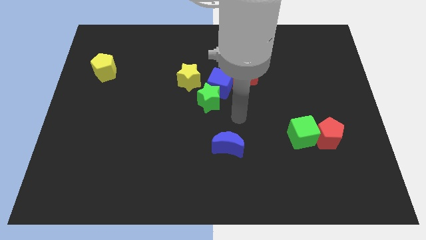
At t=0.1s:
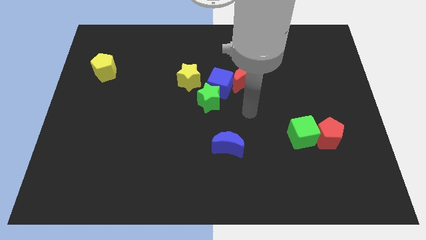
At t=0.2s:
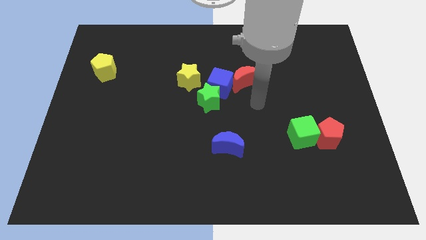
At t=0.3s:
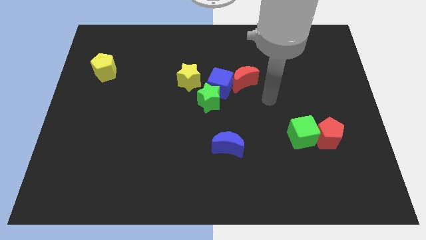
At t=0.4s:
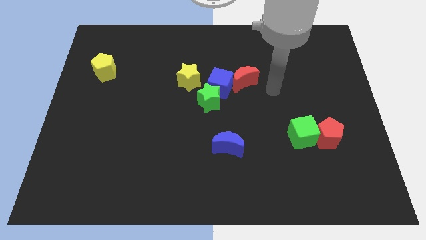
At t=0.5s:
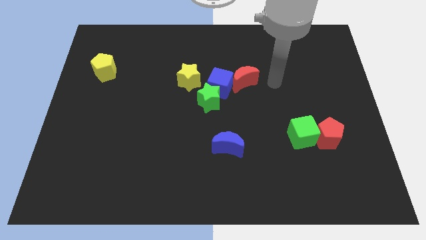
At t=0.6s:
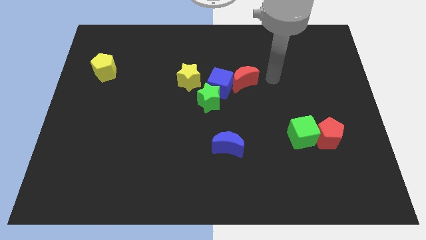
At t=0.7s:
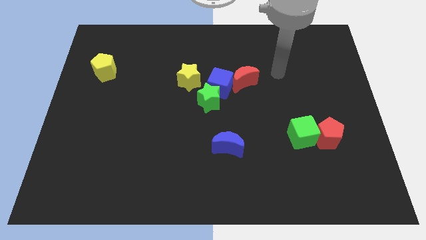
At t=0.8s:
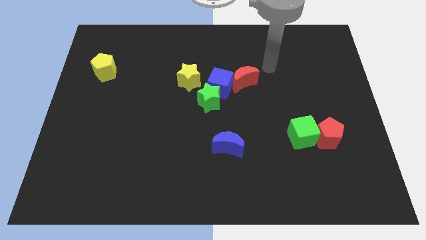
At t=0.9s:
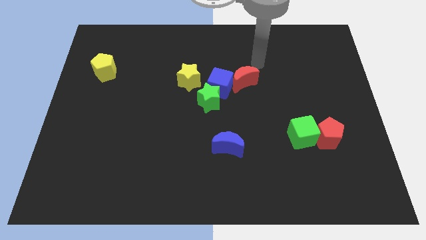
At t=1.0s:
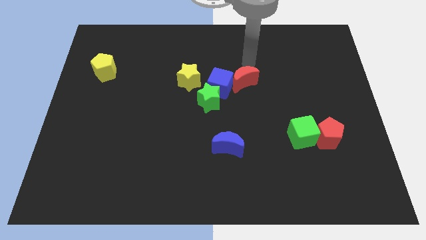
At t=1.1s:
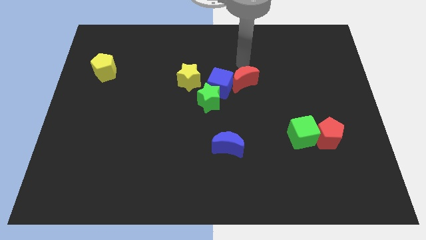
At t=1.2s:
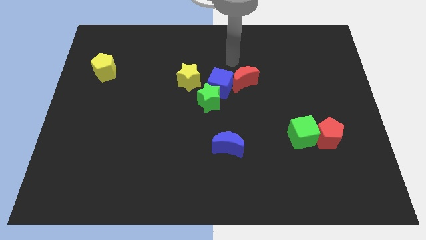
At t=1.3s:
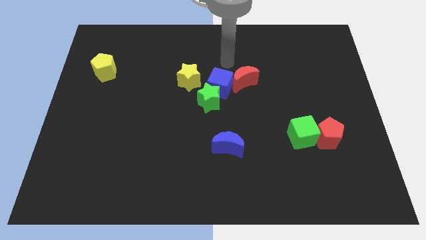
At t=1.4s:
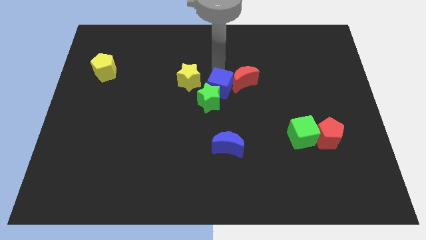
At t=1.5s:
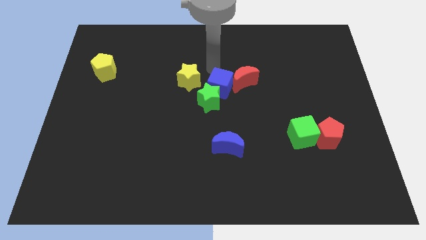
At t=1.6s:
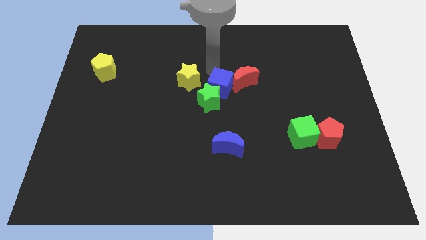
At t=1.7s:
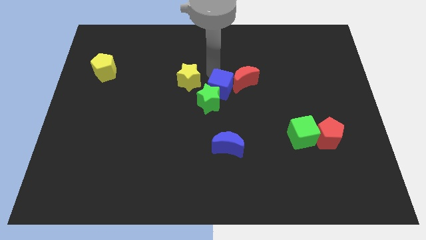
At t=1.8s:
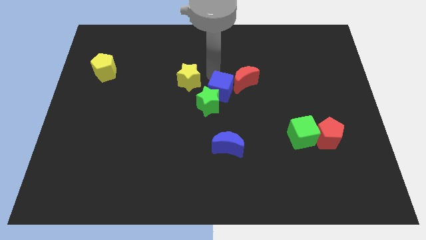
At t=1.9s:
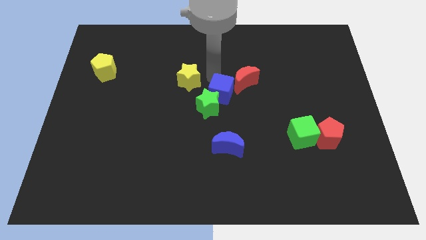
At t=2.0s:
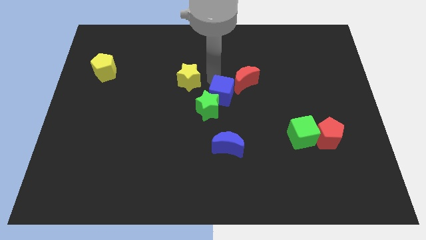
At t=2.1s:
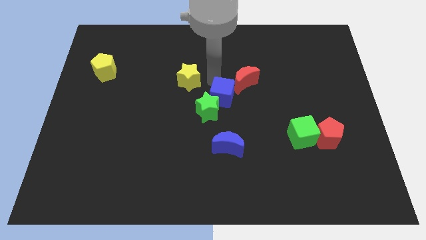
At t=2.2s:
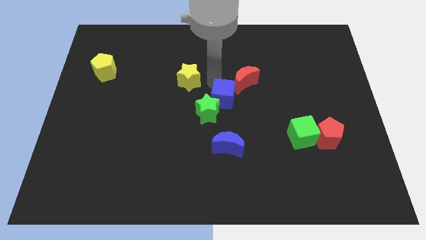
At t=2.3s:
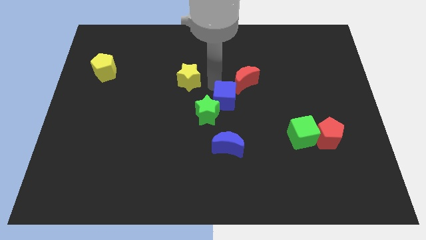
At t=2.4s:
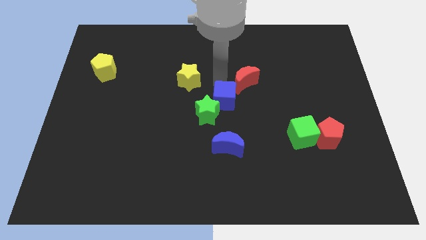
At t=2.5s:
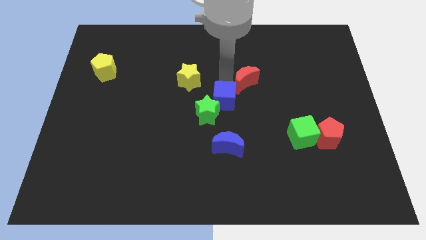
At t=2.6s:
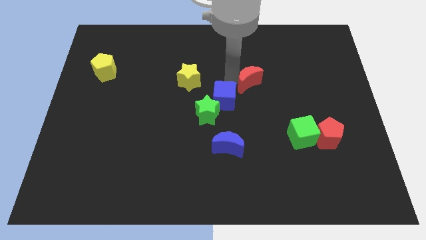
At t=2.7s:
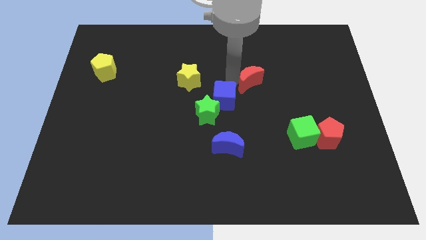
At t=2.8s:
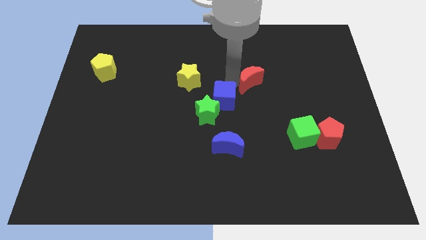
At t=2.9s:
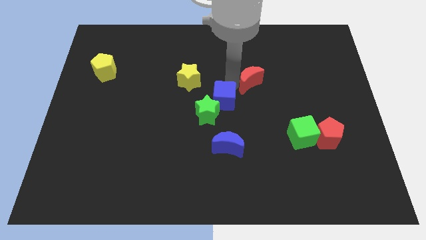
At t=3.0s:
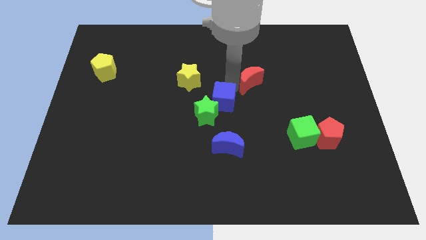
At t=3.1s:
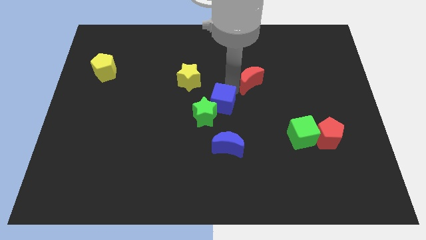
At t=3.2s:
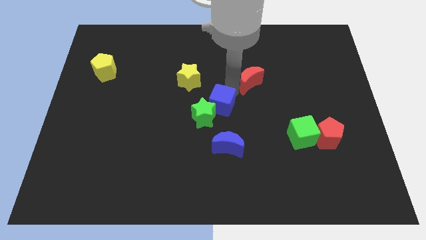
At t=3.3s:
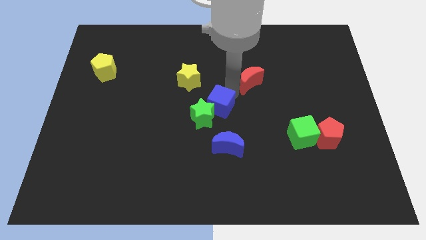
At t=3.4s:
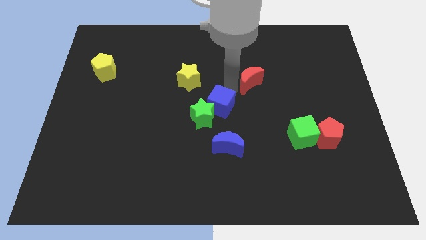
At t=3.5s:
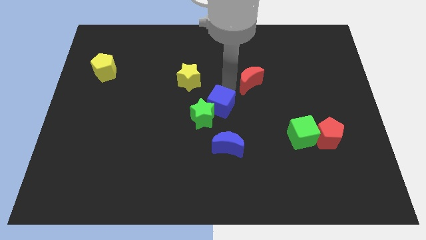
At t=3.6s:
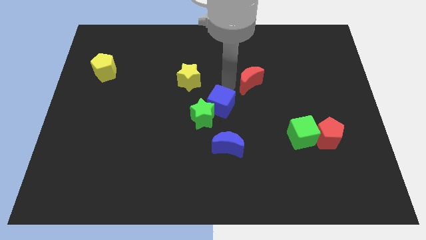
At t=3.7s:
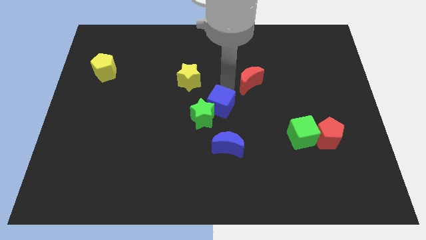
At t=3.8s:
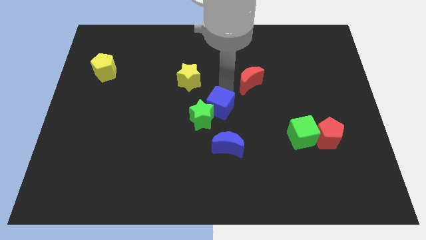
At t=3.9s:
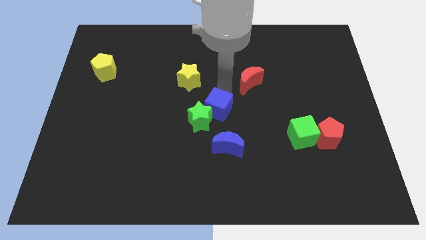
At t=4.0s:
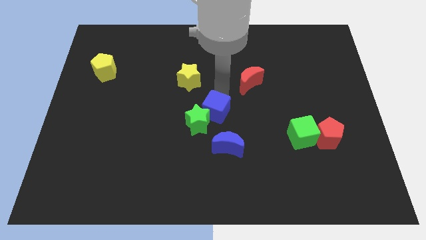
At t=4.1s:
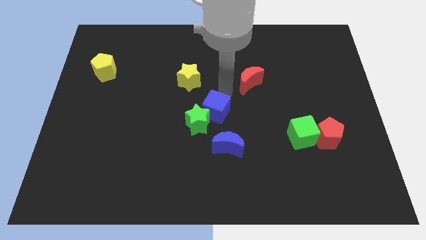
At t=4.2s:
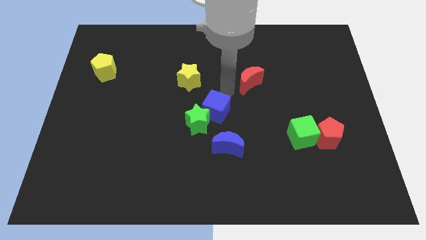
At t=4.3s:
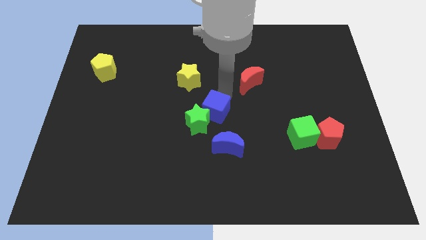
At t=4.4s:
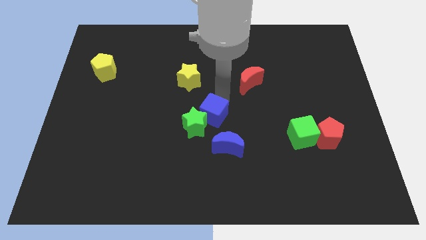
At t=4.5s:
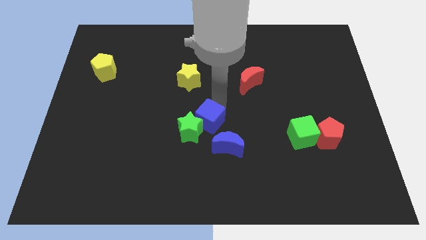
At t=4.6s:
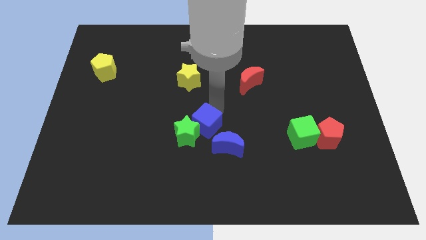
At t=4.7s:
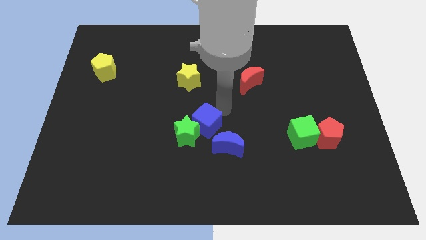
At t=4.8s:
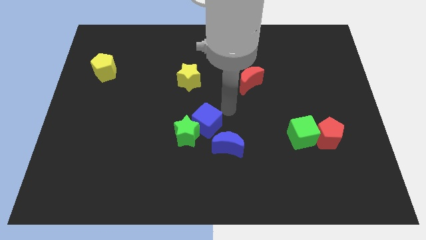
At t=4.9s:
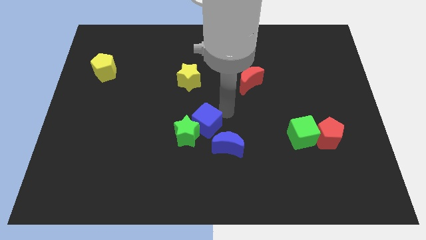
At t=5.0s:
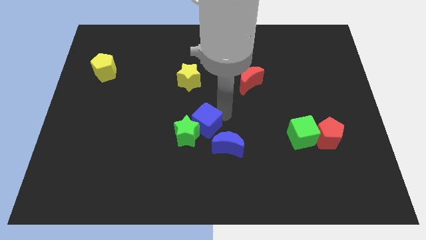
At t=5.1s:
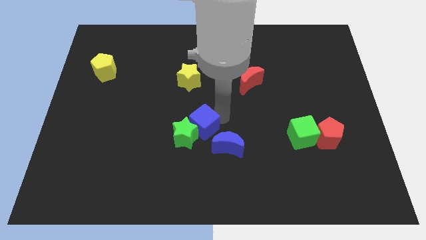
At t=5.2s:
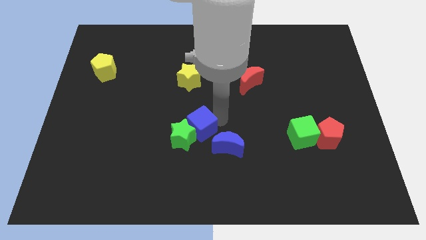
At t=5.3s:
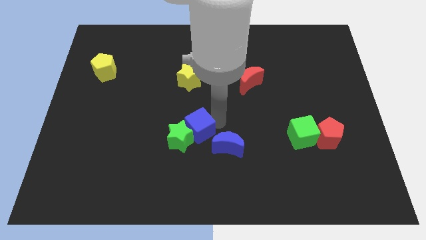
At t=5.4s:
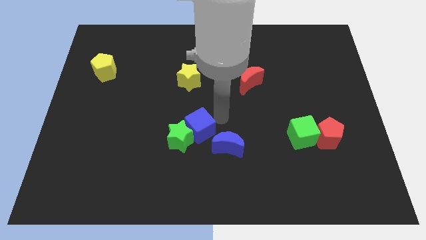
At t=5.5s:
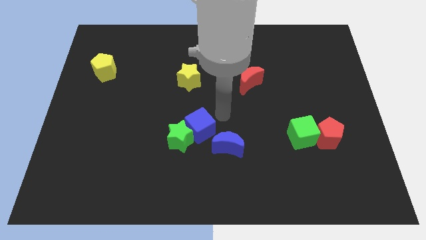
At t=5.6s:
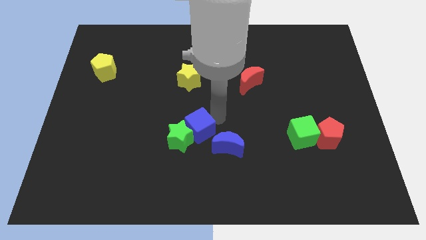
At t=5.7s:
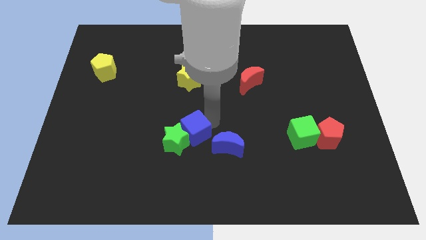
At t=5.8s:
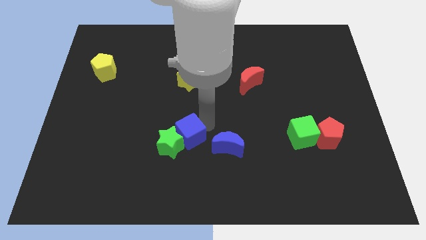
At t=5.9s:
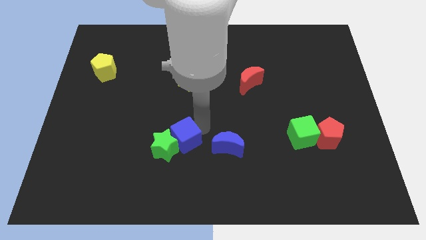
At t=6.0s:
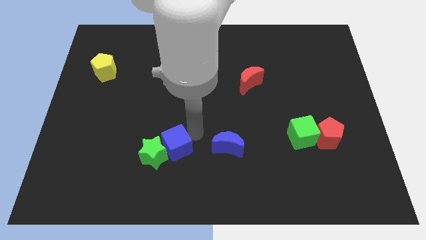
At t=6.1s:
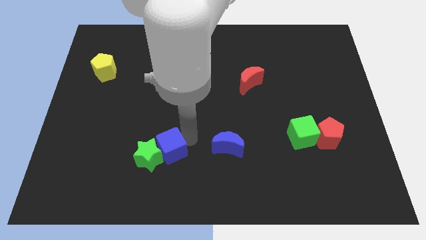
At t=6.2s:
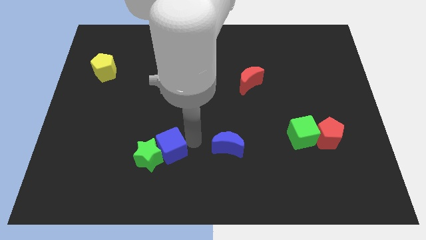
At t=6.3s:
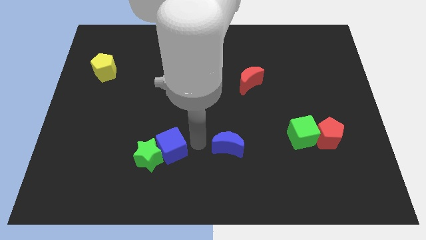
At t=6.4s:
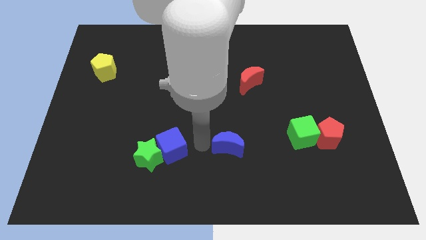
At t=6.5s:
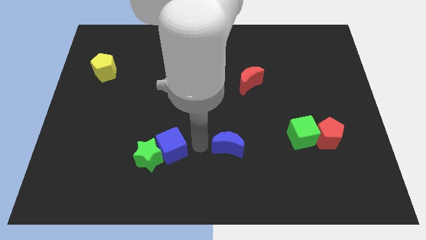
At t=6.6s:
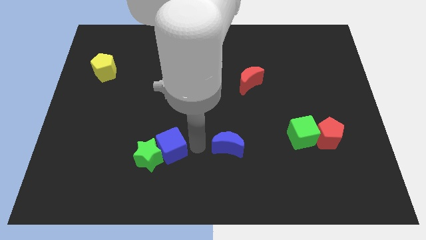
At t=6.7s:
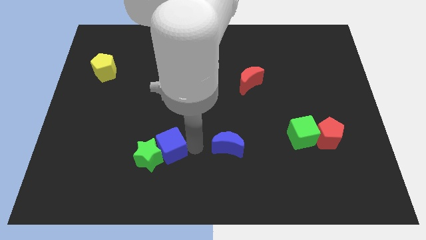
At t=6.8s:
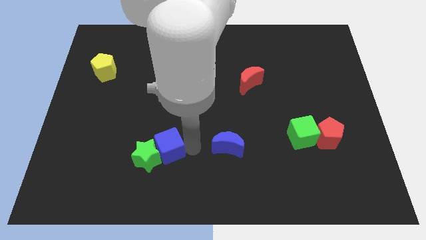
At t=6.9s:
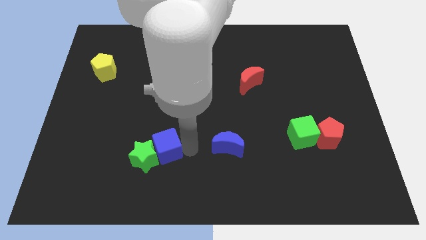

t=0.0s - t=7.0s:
slide the blue cube down and to the left diagonally

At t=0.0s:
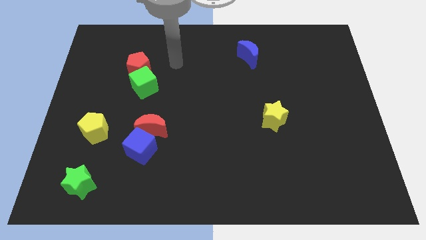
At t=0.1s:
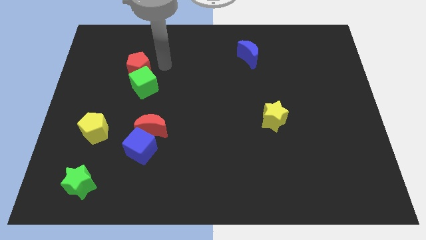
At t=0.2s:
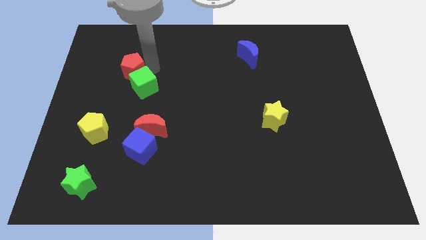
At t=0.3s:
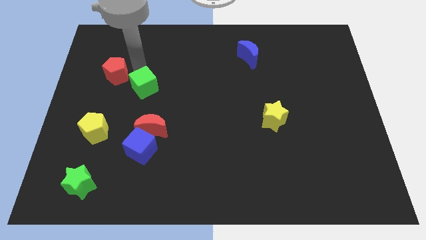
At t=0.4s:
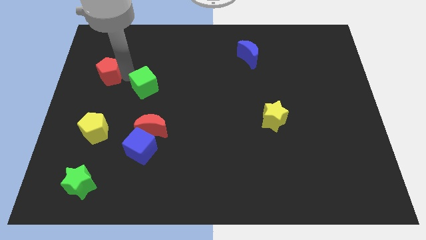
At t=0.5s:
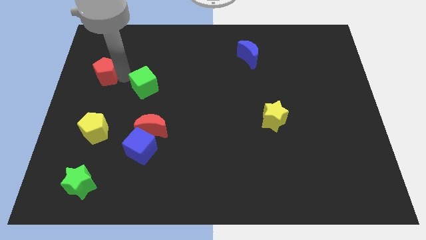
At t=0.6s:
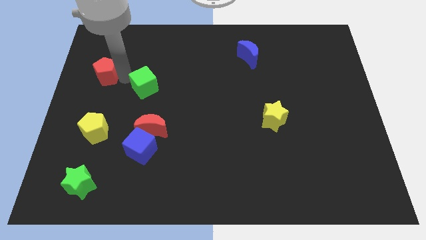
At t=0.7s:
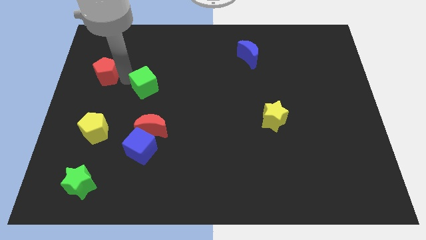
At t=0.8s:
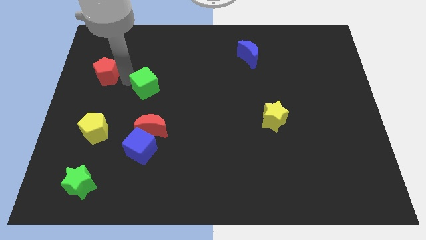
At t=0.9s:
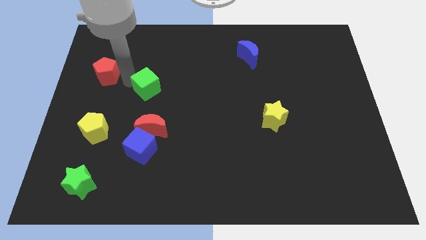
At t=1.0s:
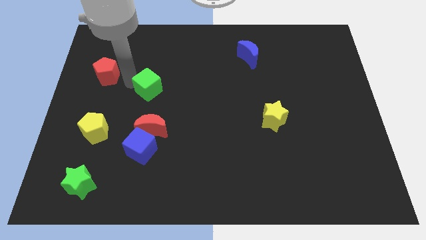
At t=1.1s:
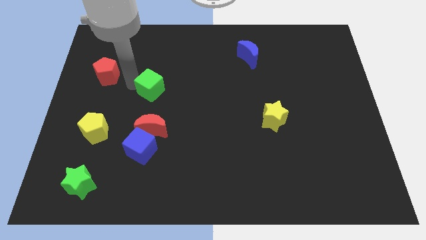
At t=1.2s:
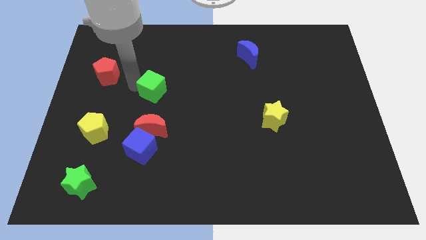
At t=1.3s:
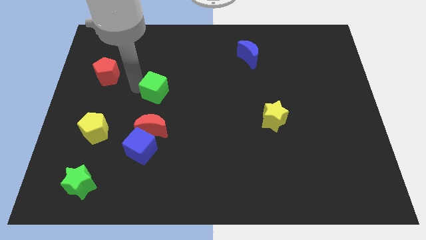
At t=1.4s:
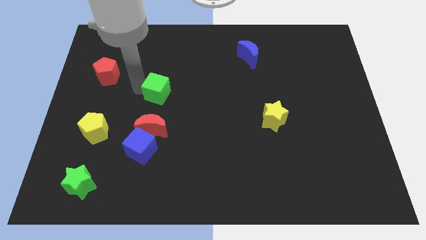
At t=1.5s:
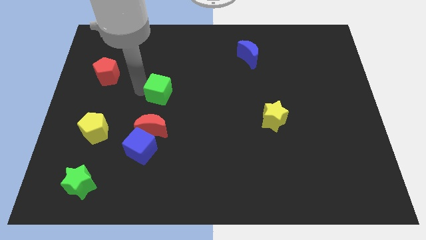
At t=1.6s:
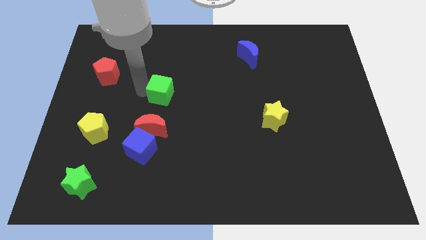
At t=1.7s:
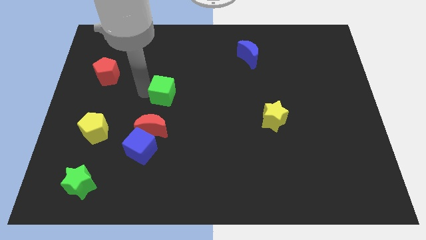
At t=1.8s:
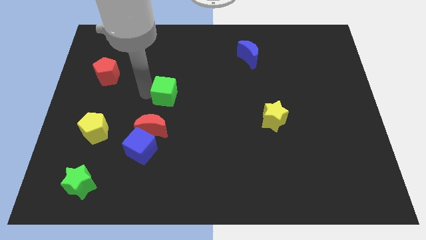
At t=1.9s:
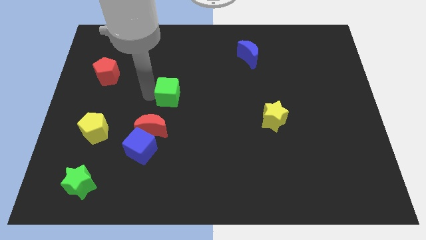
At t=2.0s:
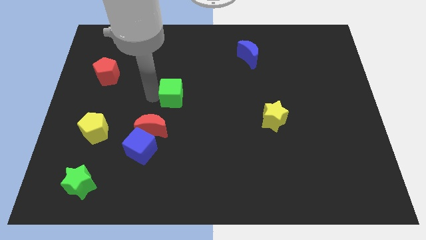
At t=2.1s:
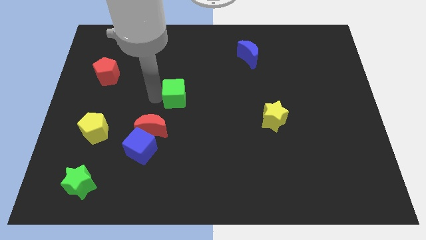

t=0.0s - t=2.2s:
slightly move the green cube right
